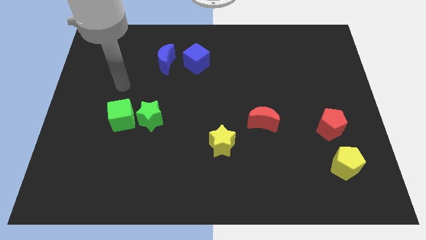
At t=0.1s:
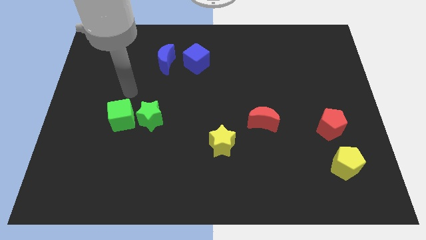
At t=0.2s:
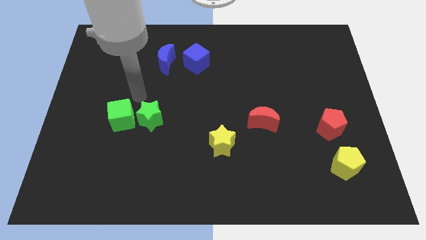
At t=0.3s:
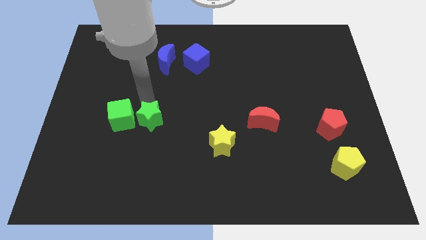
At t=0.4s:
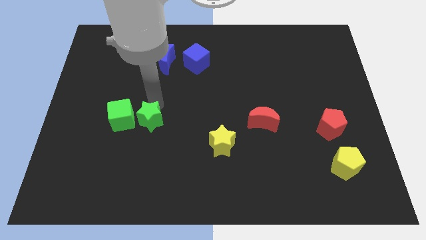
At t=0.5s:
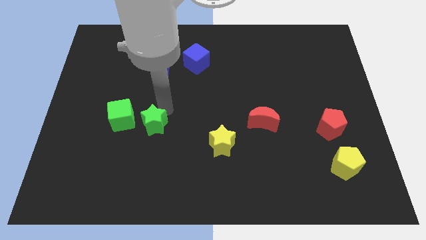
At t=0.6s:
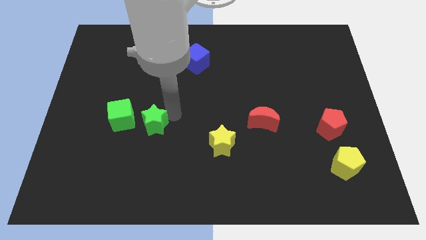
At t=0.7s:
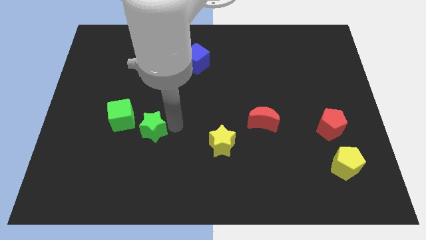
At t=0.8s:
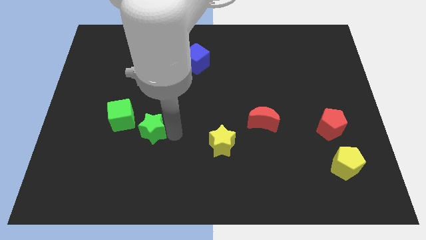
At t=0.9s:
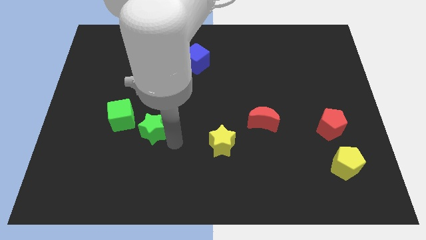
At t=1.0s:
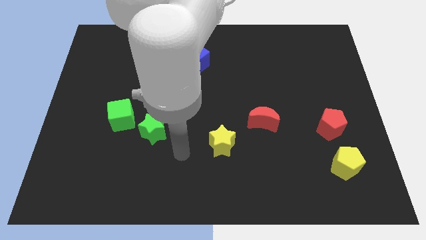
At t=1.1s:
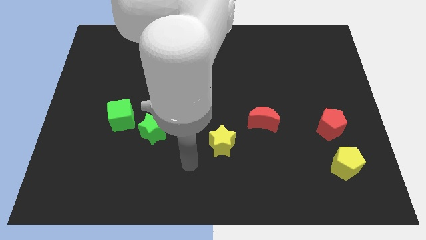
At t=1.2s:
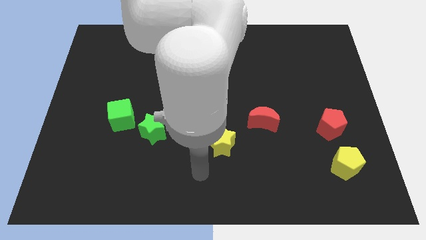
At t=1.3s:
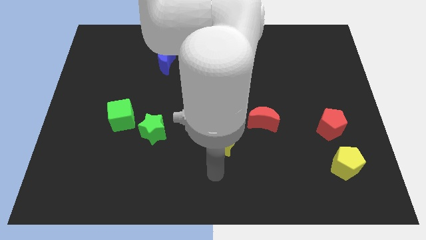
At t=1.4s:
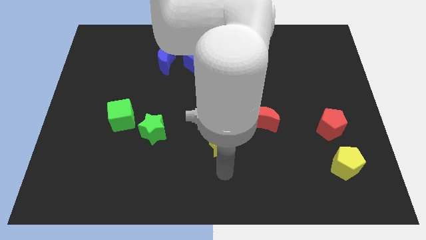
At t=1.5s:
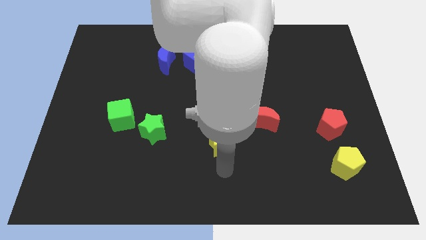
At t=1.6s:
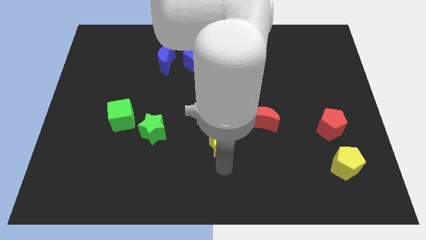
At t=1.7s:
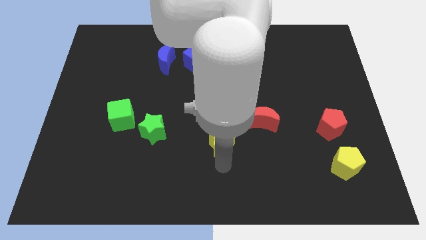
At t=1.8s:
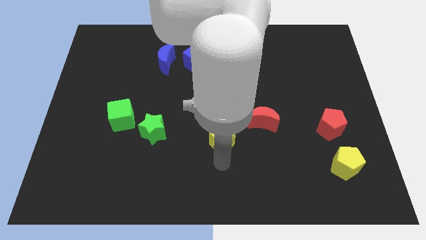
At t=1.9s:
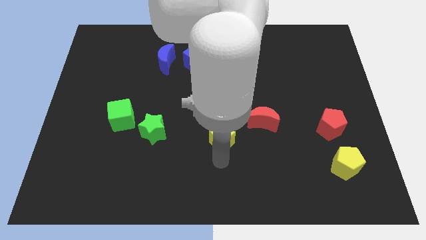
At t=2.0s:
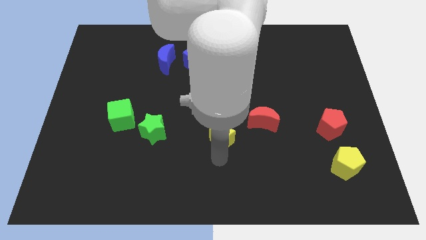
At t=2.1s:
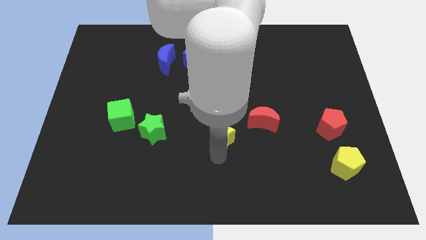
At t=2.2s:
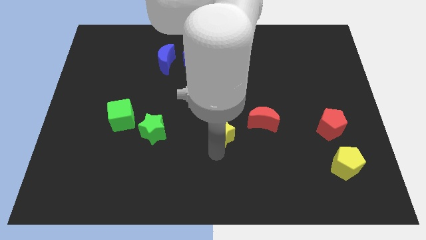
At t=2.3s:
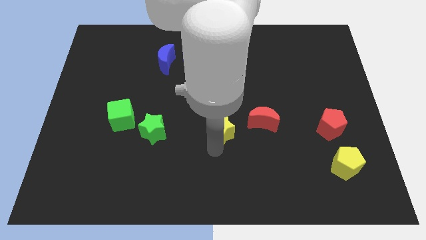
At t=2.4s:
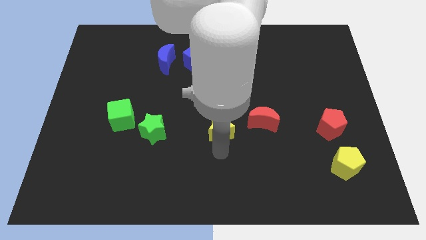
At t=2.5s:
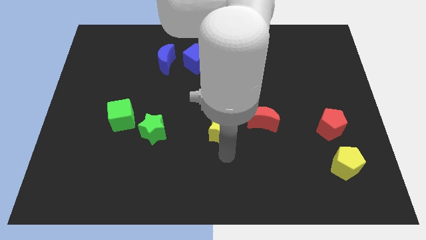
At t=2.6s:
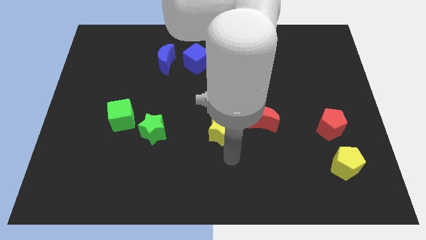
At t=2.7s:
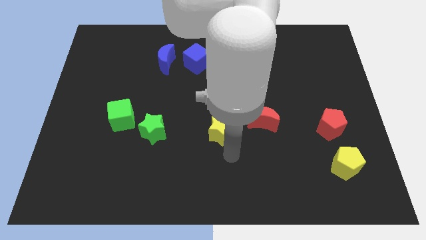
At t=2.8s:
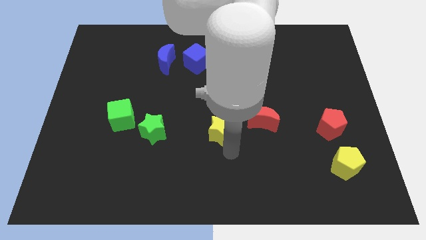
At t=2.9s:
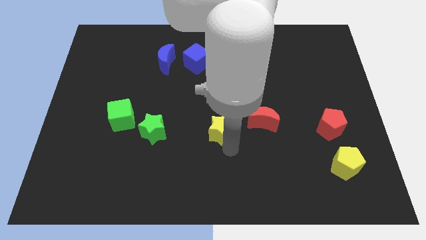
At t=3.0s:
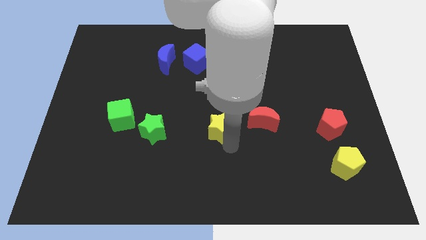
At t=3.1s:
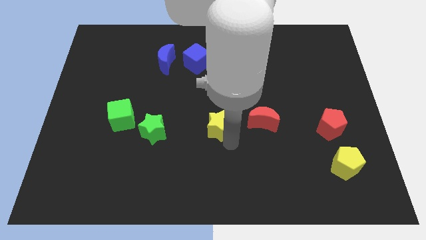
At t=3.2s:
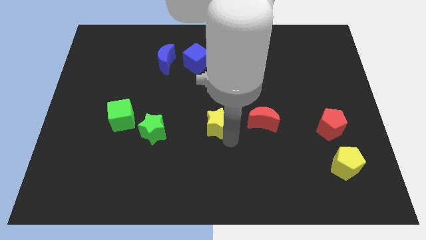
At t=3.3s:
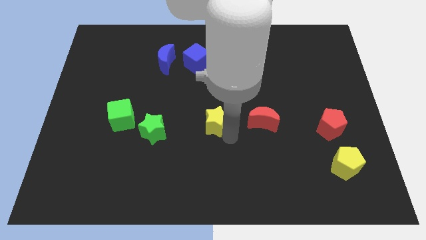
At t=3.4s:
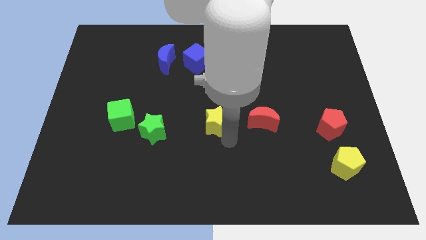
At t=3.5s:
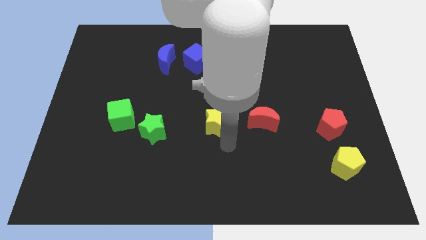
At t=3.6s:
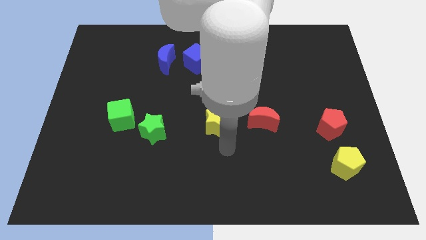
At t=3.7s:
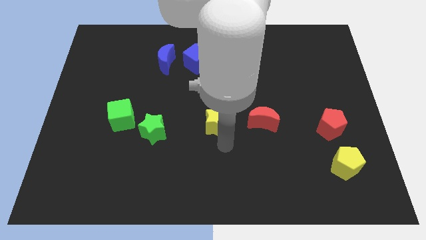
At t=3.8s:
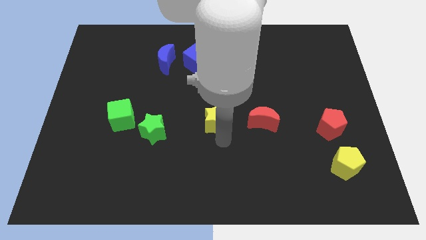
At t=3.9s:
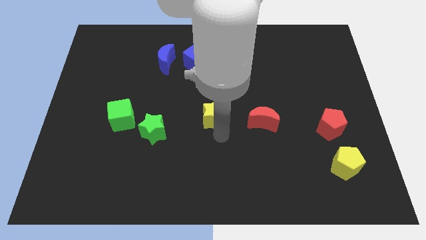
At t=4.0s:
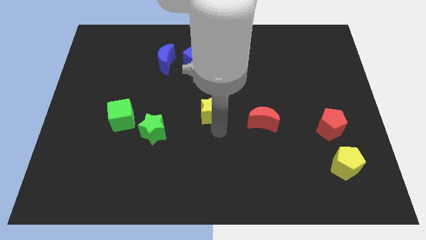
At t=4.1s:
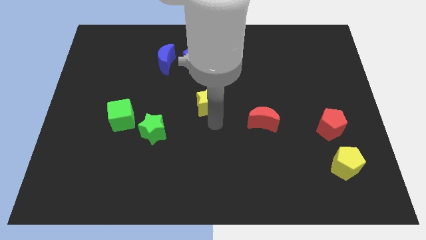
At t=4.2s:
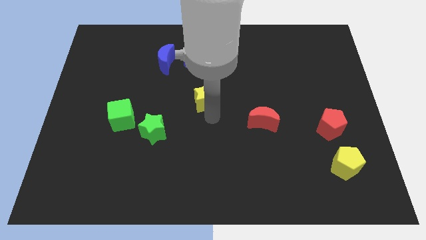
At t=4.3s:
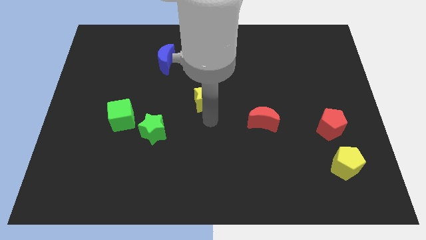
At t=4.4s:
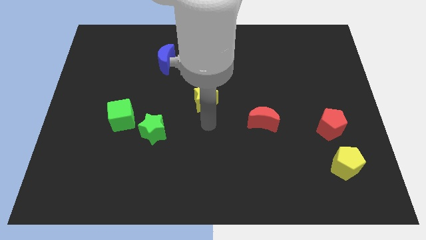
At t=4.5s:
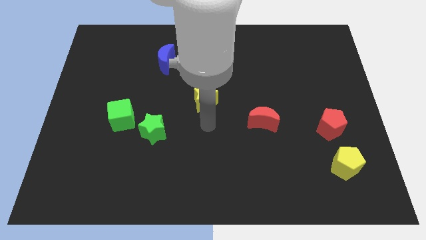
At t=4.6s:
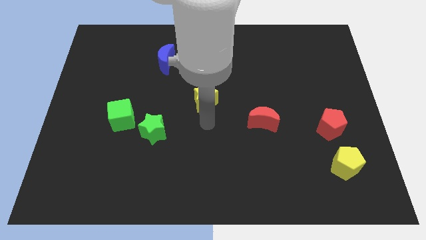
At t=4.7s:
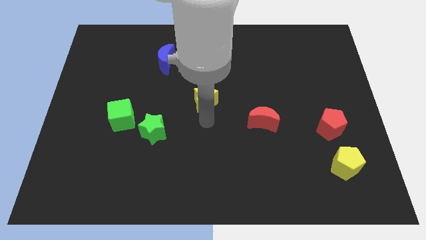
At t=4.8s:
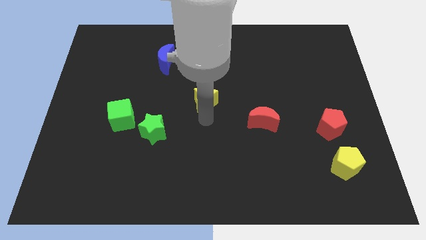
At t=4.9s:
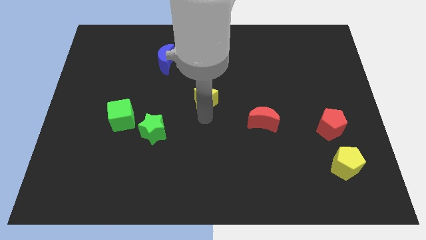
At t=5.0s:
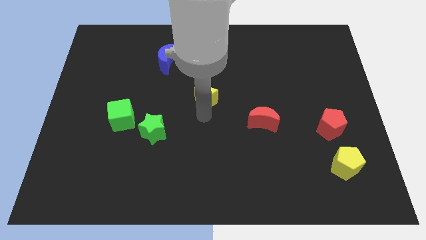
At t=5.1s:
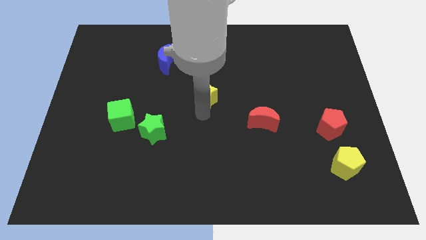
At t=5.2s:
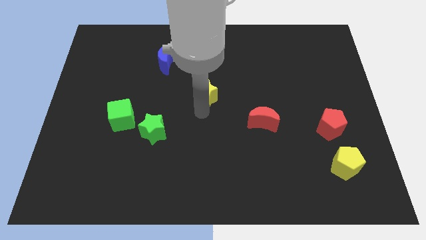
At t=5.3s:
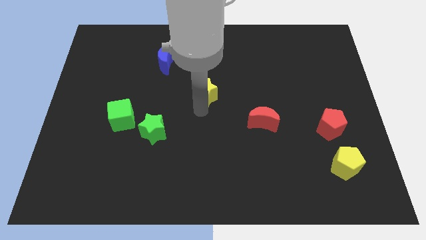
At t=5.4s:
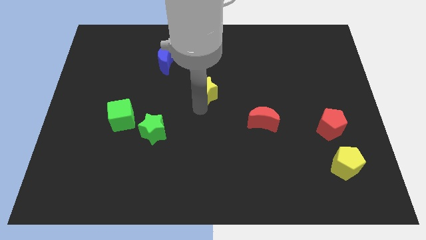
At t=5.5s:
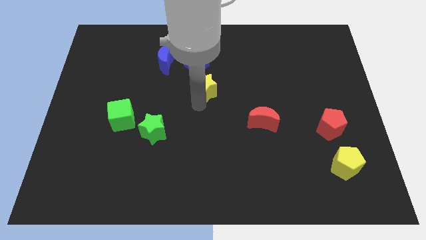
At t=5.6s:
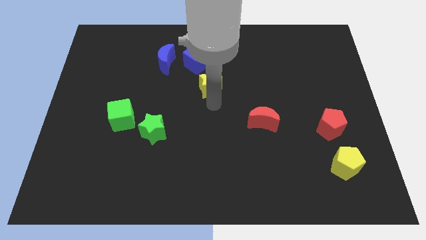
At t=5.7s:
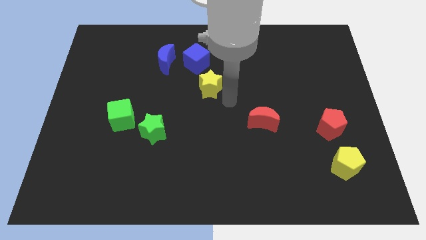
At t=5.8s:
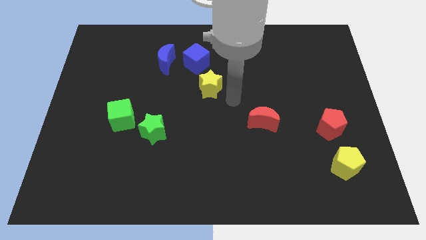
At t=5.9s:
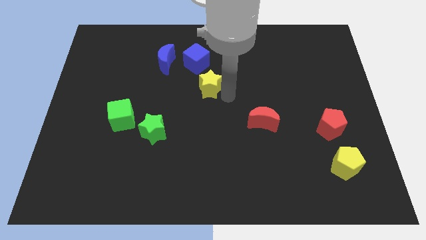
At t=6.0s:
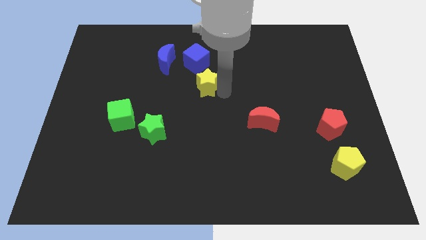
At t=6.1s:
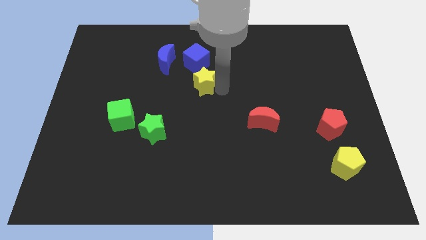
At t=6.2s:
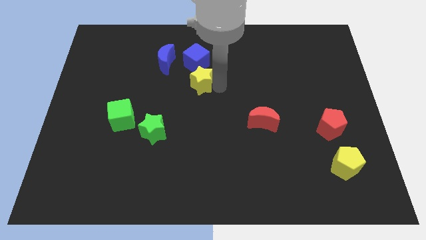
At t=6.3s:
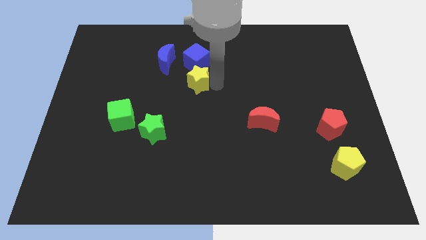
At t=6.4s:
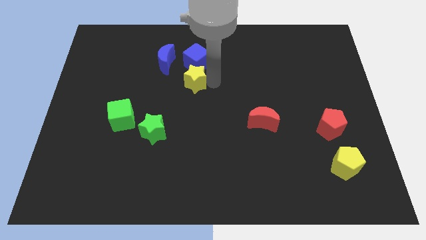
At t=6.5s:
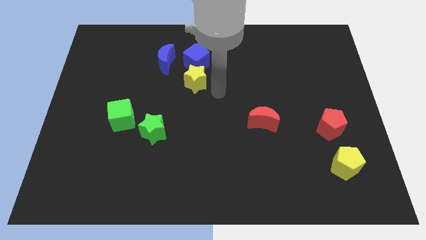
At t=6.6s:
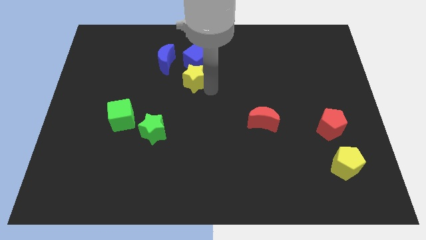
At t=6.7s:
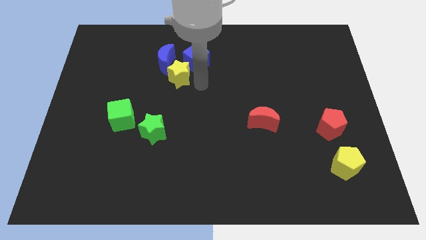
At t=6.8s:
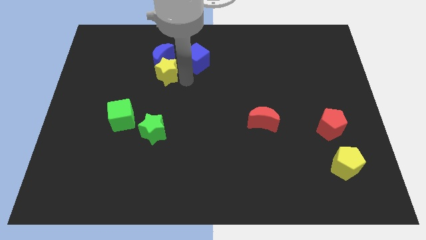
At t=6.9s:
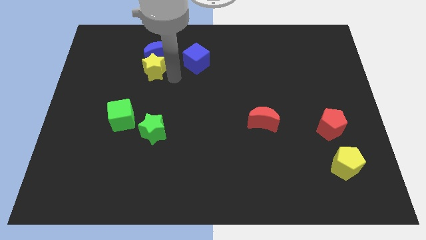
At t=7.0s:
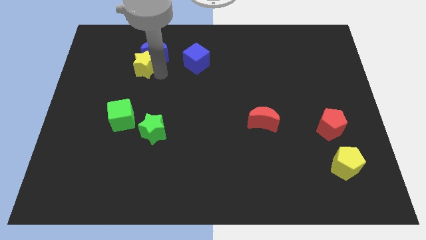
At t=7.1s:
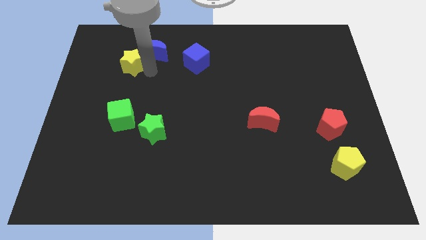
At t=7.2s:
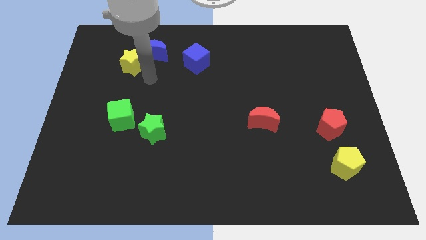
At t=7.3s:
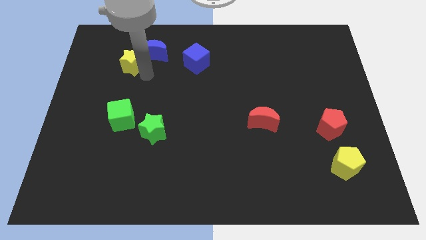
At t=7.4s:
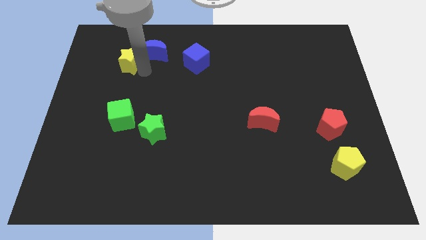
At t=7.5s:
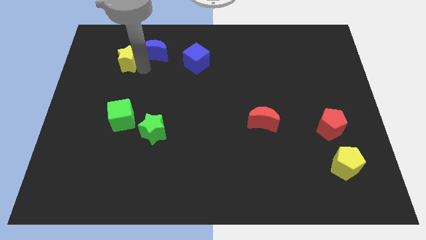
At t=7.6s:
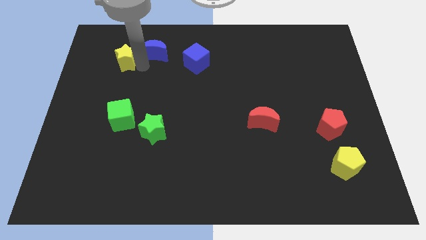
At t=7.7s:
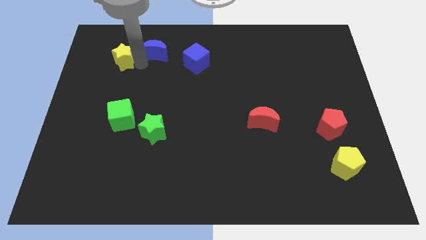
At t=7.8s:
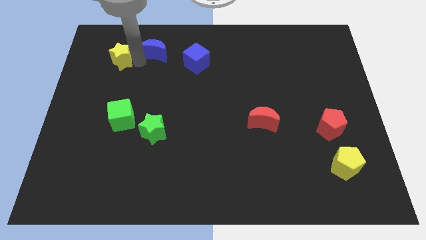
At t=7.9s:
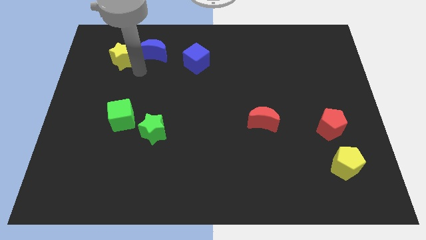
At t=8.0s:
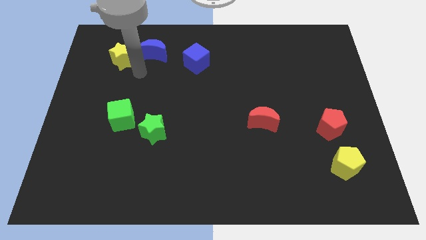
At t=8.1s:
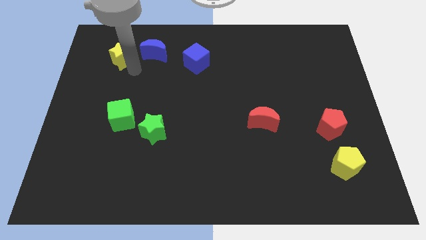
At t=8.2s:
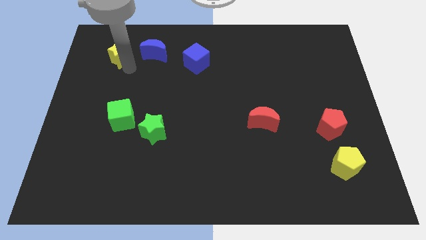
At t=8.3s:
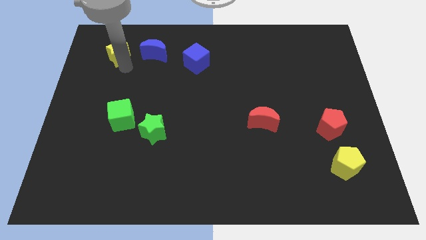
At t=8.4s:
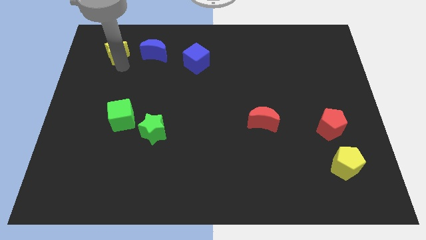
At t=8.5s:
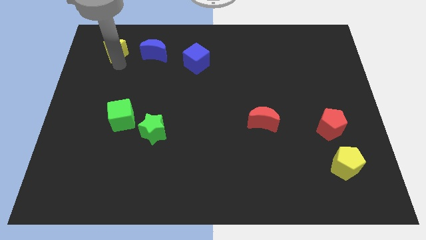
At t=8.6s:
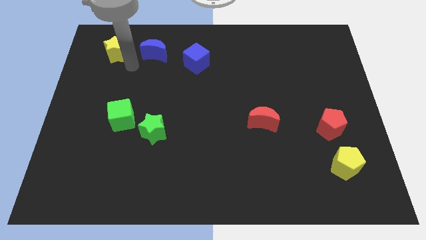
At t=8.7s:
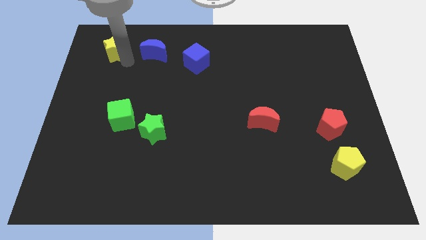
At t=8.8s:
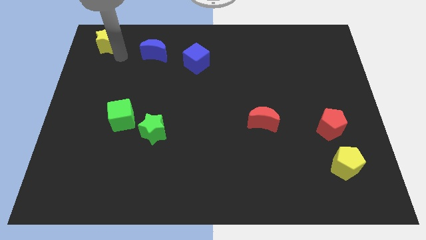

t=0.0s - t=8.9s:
move the yellow star to the top left
